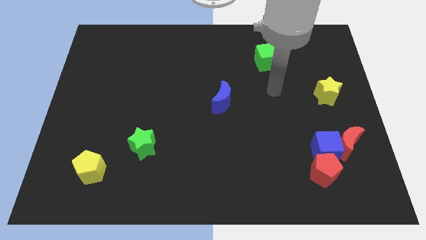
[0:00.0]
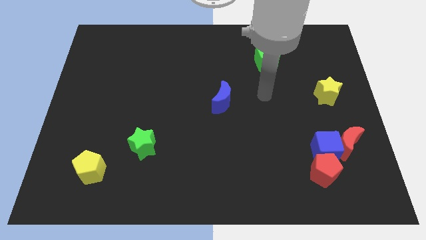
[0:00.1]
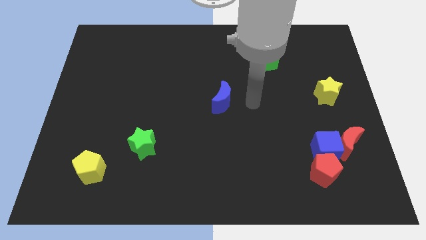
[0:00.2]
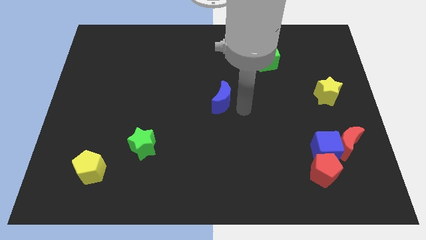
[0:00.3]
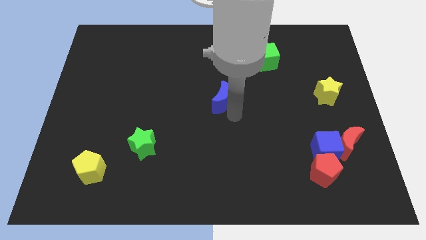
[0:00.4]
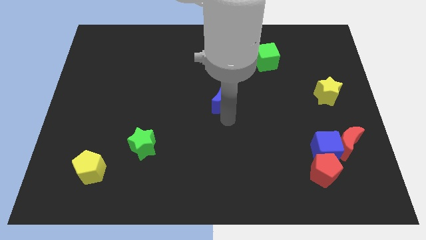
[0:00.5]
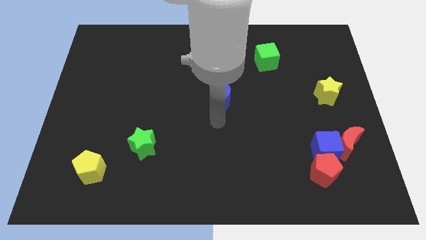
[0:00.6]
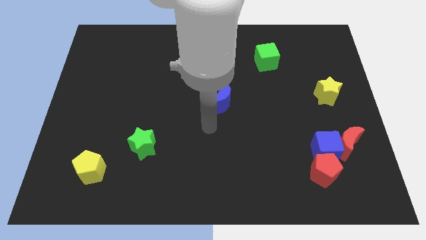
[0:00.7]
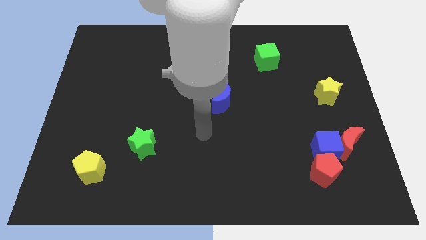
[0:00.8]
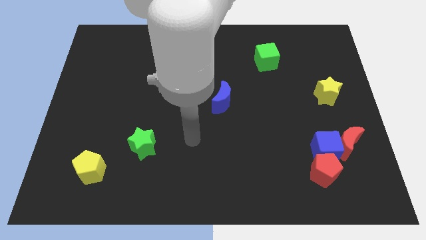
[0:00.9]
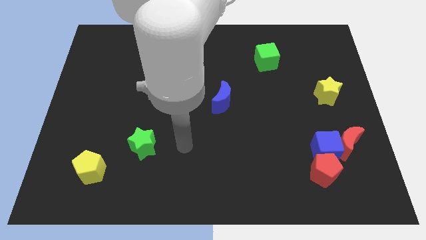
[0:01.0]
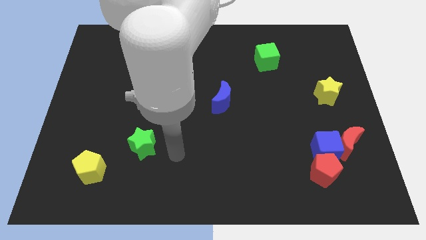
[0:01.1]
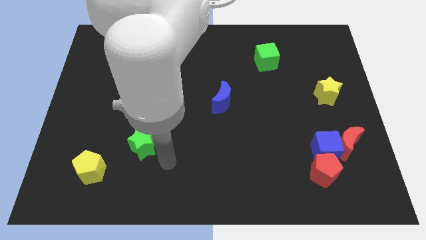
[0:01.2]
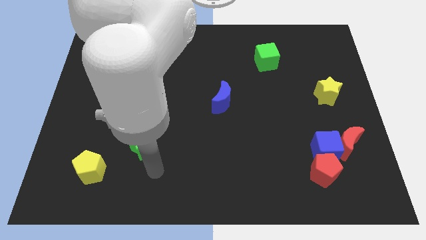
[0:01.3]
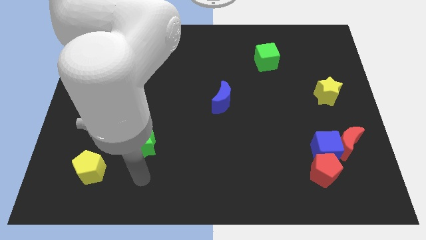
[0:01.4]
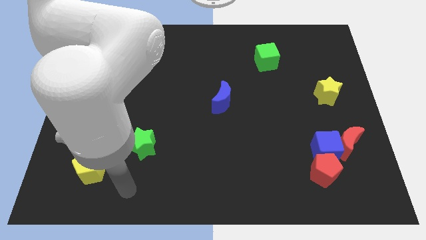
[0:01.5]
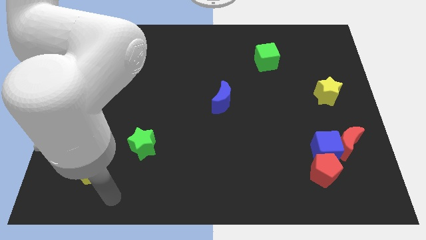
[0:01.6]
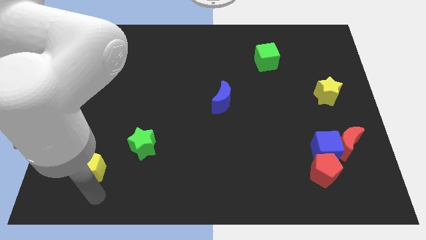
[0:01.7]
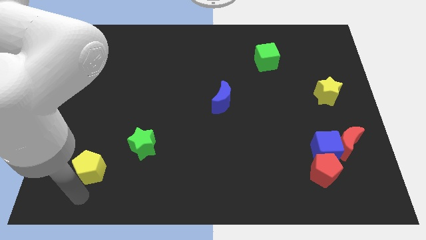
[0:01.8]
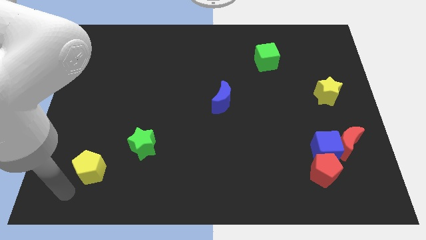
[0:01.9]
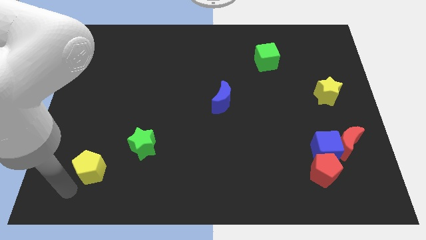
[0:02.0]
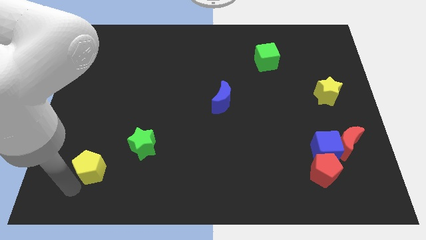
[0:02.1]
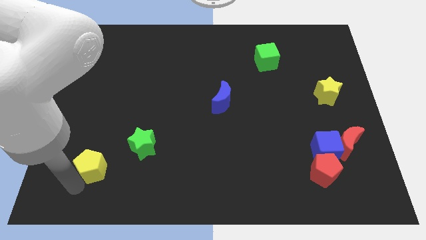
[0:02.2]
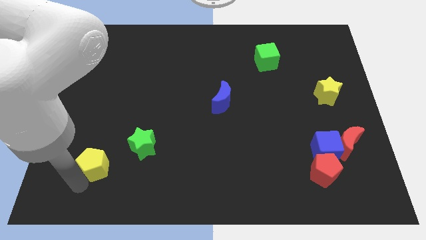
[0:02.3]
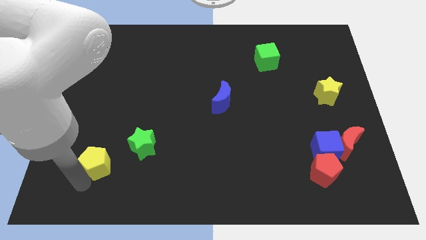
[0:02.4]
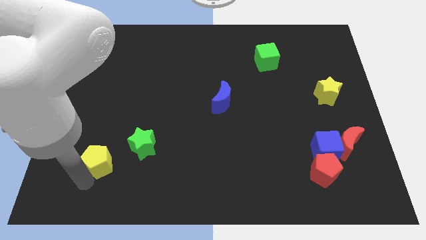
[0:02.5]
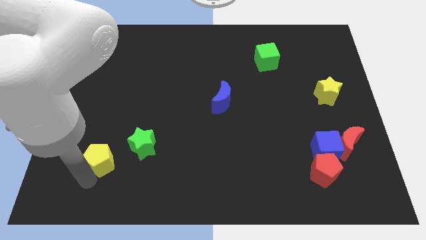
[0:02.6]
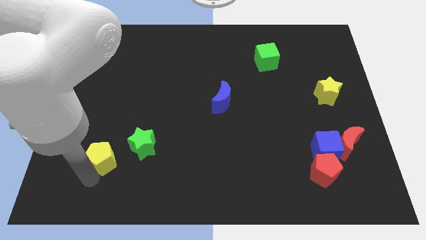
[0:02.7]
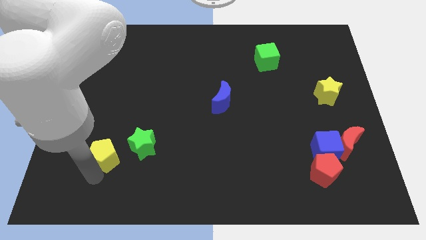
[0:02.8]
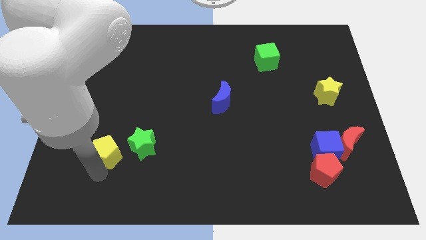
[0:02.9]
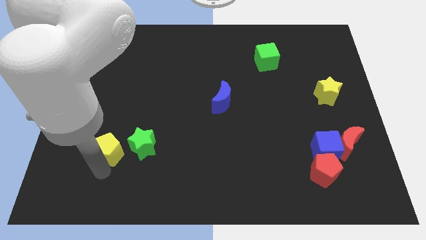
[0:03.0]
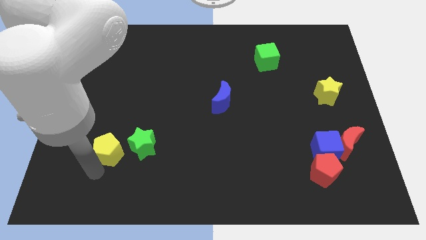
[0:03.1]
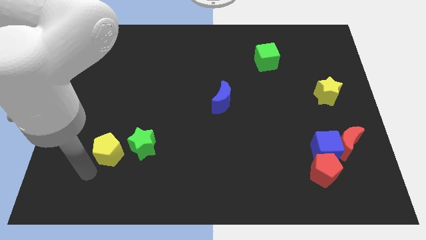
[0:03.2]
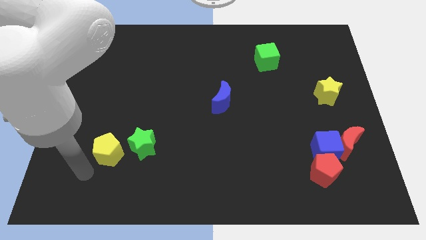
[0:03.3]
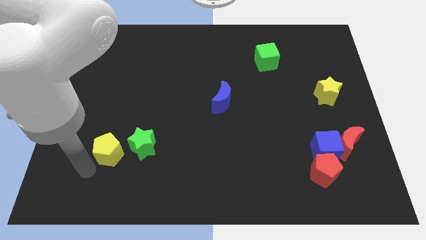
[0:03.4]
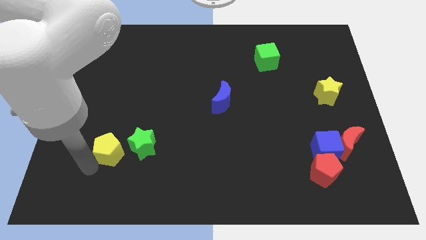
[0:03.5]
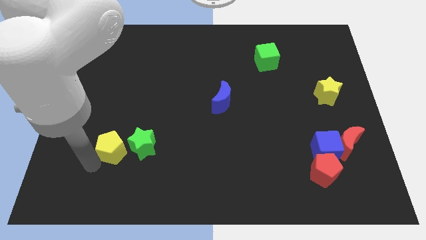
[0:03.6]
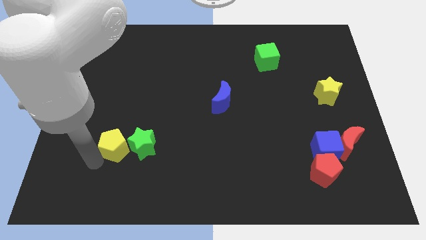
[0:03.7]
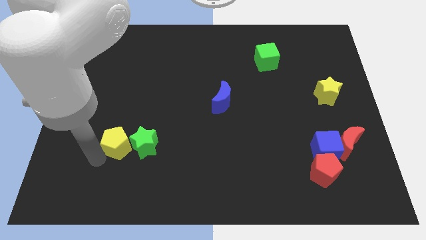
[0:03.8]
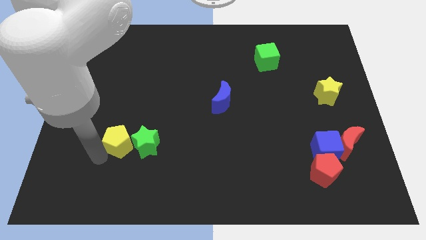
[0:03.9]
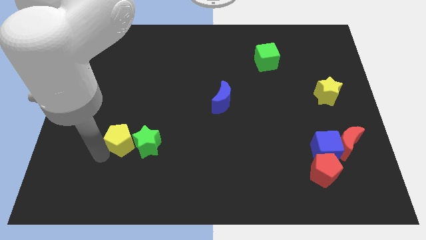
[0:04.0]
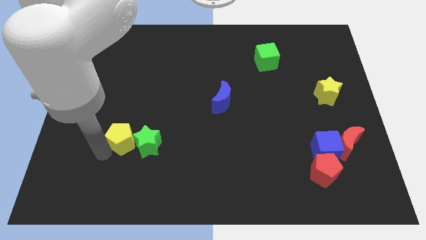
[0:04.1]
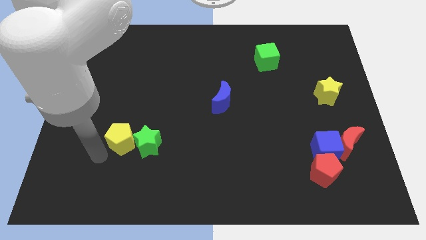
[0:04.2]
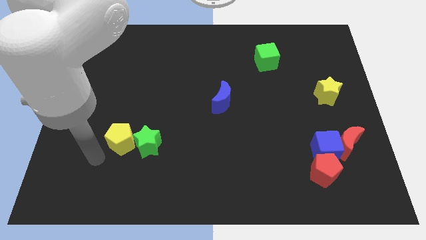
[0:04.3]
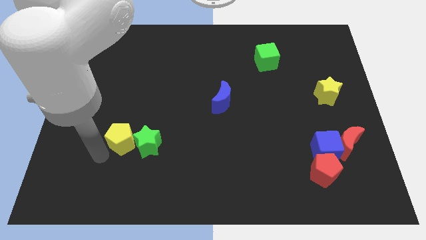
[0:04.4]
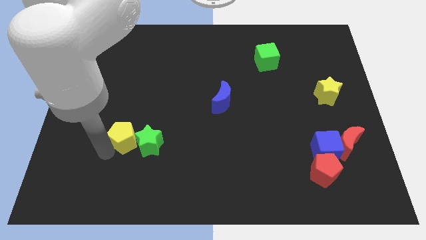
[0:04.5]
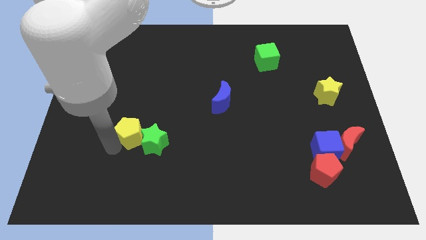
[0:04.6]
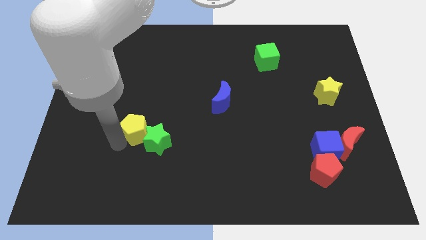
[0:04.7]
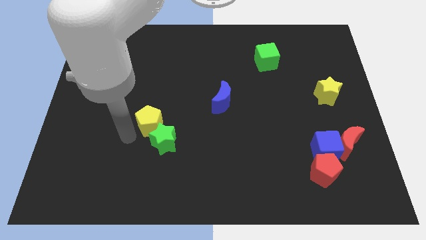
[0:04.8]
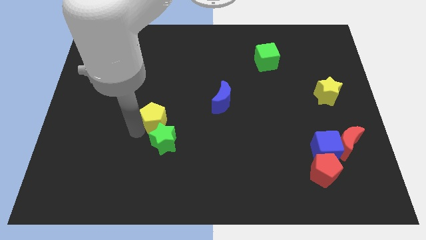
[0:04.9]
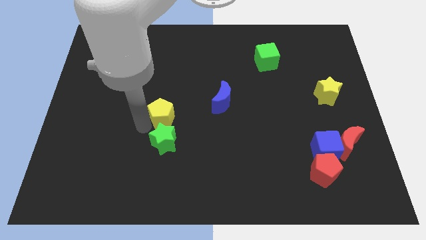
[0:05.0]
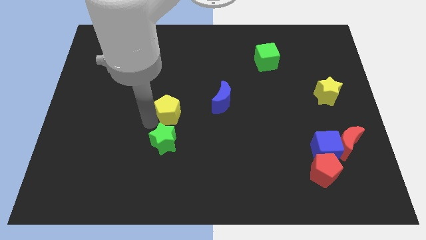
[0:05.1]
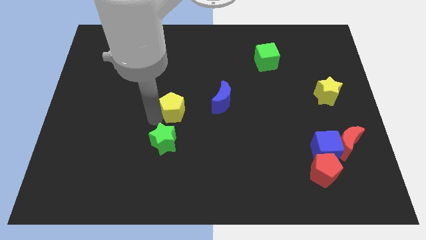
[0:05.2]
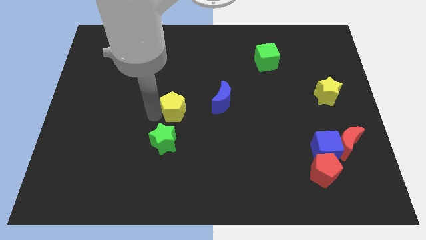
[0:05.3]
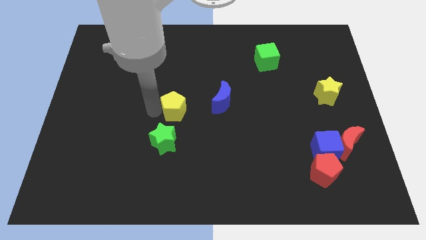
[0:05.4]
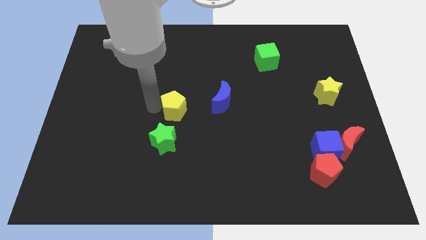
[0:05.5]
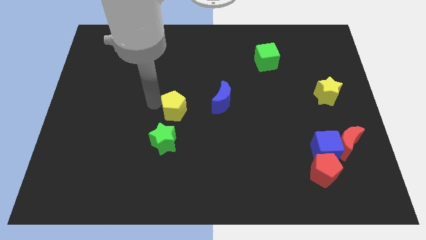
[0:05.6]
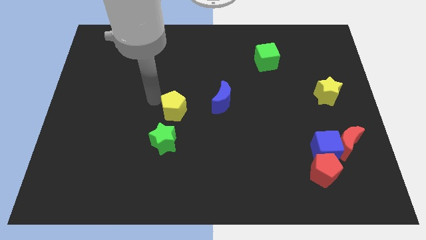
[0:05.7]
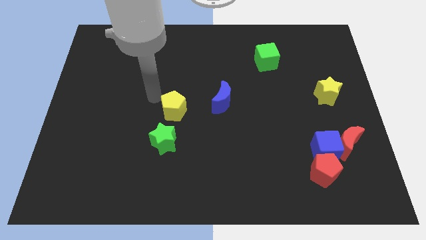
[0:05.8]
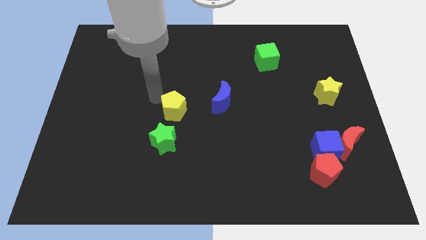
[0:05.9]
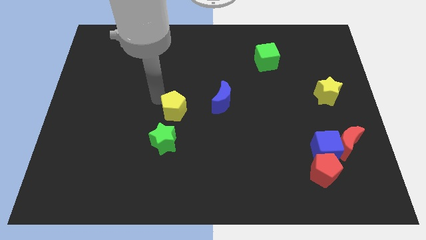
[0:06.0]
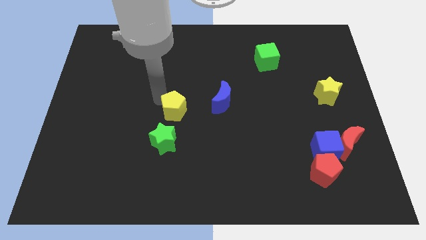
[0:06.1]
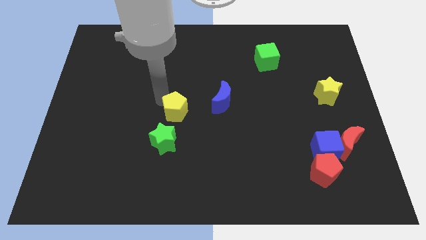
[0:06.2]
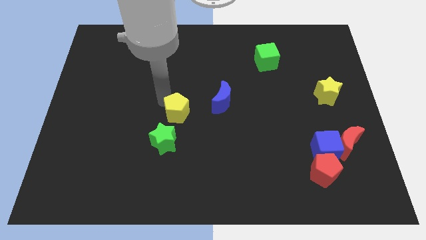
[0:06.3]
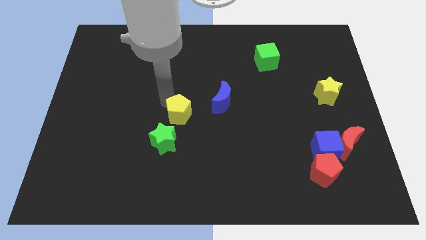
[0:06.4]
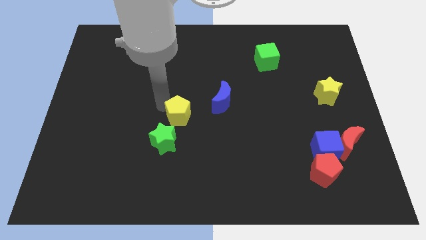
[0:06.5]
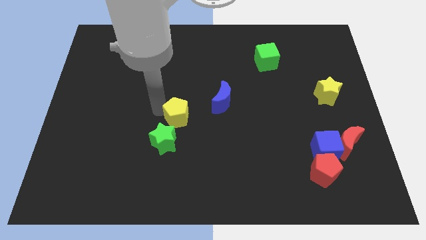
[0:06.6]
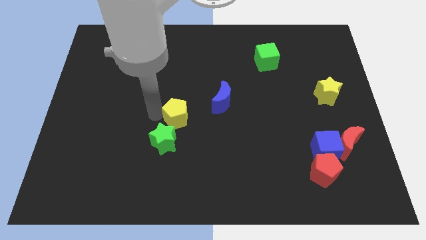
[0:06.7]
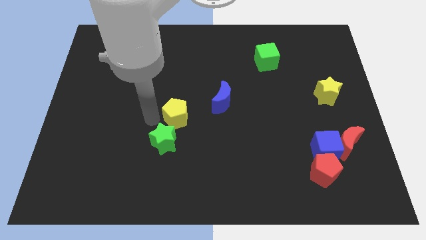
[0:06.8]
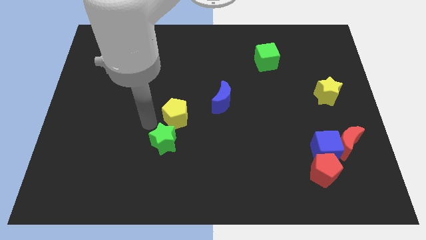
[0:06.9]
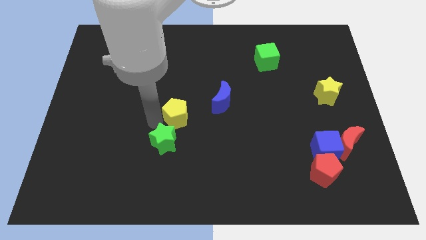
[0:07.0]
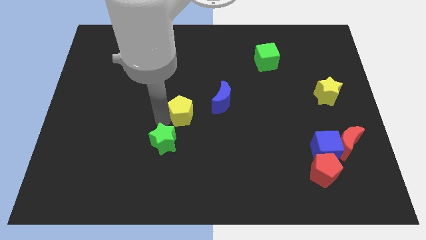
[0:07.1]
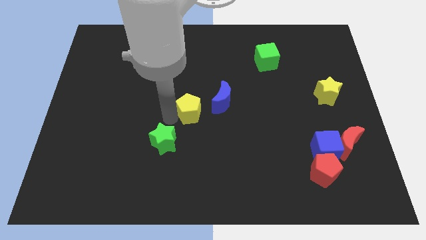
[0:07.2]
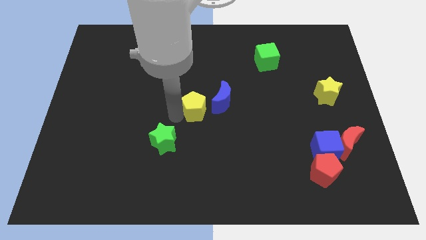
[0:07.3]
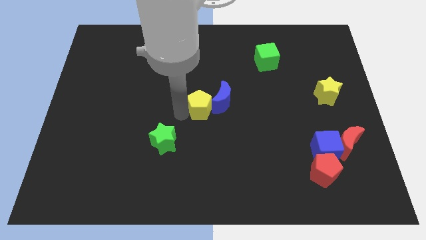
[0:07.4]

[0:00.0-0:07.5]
move the yellow pentagon towards the blue moon
